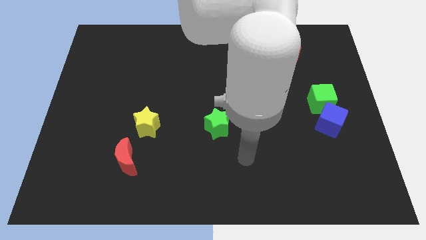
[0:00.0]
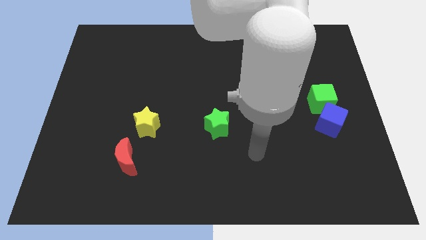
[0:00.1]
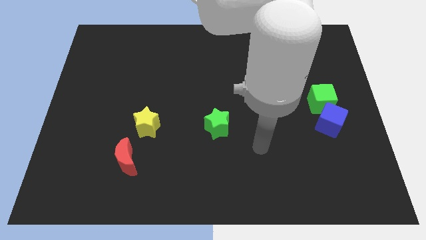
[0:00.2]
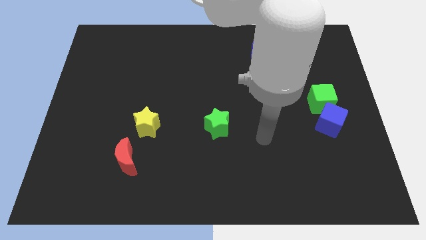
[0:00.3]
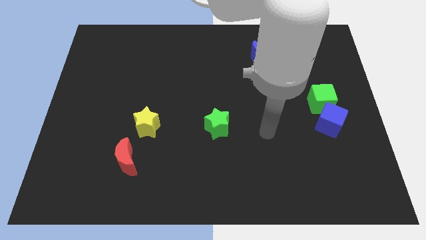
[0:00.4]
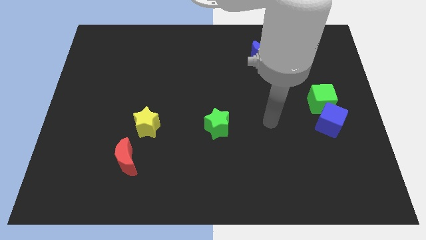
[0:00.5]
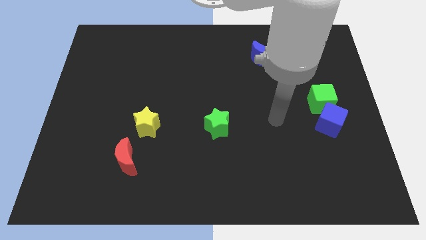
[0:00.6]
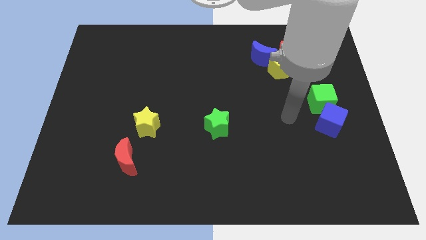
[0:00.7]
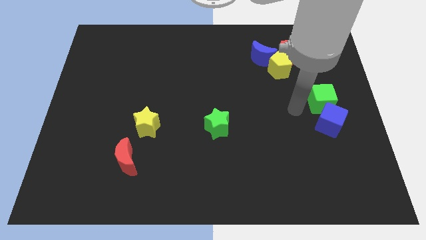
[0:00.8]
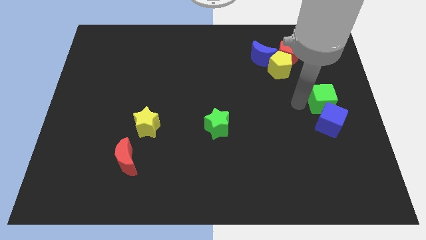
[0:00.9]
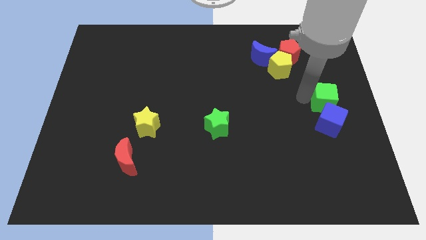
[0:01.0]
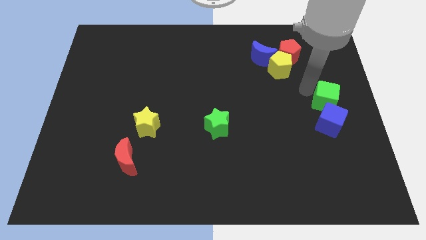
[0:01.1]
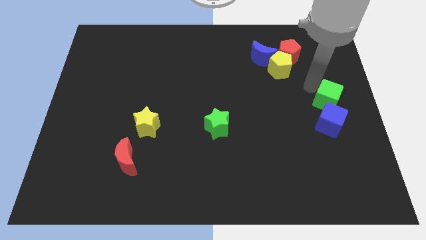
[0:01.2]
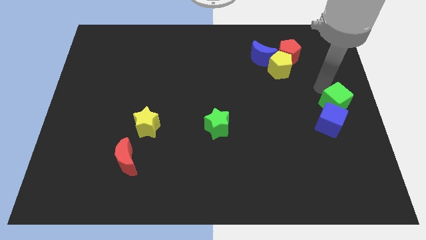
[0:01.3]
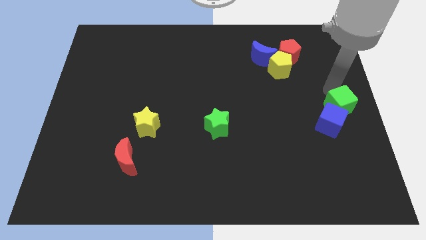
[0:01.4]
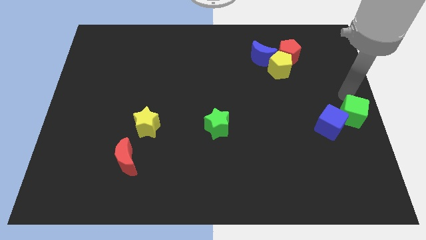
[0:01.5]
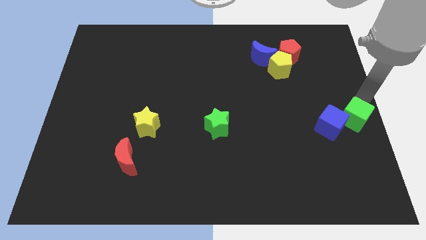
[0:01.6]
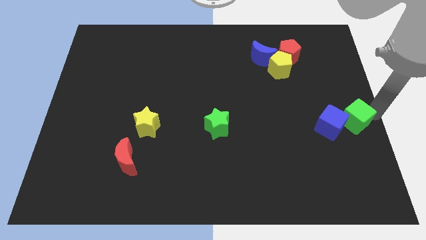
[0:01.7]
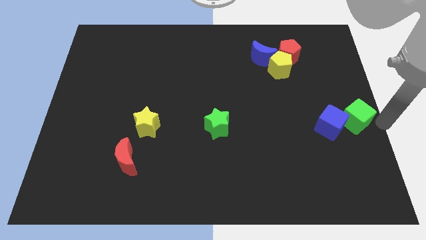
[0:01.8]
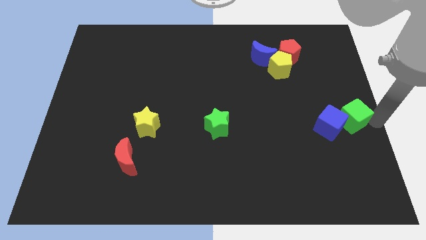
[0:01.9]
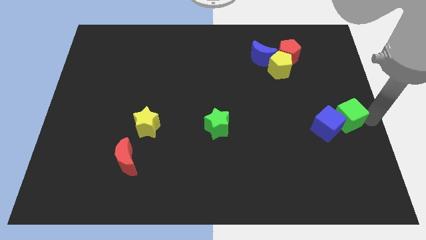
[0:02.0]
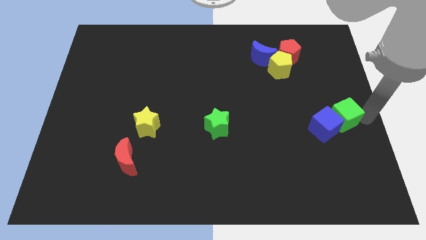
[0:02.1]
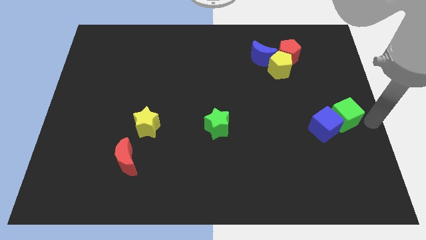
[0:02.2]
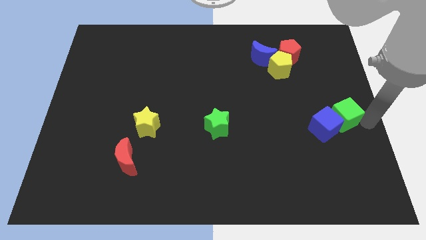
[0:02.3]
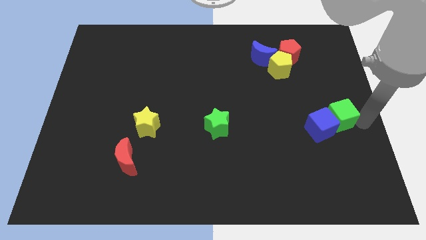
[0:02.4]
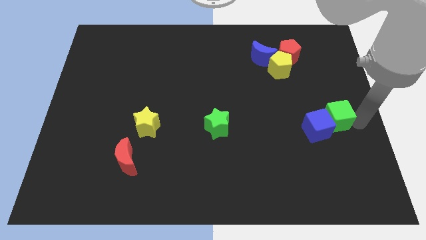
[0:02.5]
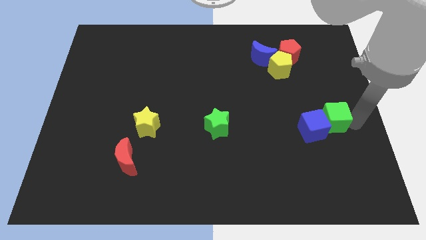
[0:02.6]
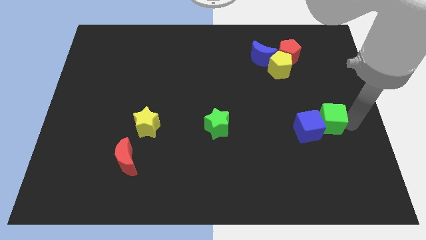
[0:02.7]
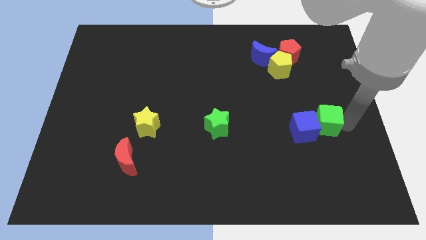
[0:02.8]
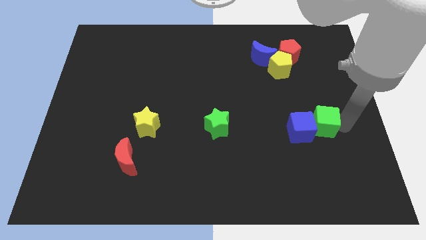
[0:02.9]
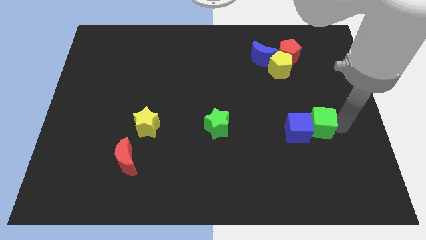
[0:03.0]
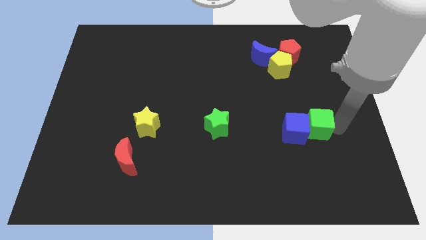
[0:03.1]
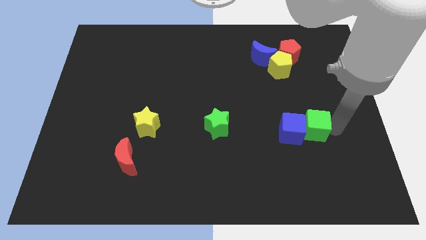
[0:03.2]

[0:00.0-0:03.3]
slightly move the green cube down and left

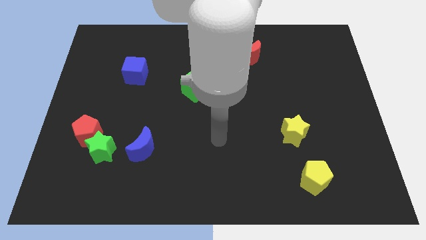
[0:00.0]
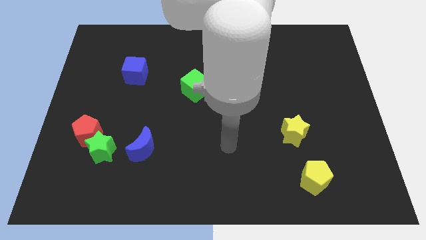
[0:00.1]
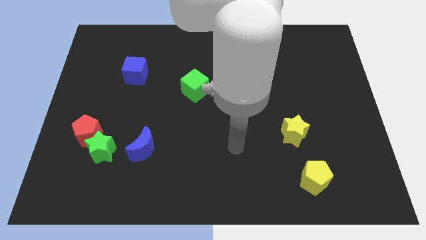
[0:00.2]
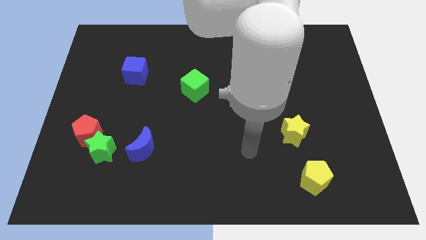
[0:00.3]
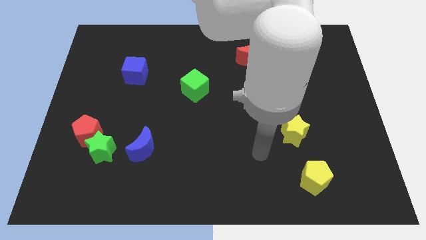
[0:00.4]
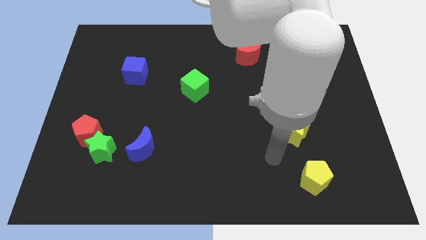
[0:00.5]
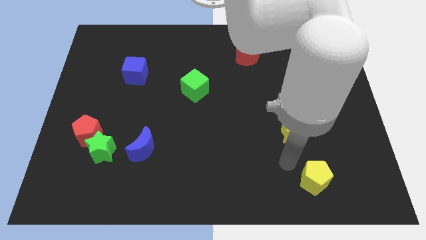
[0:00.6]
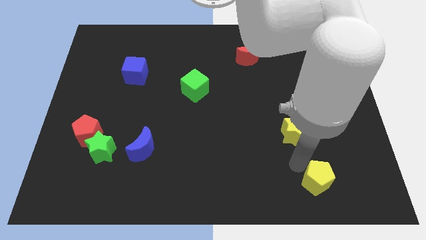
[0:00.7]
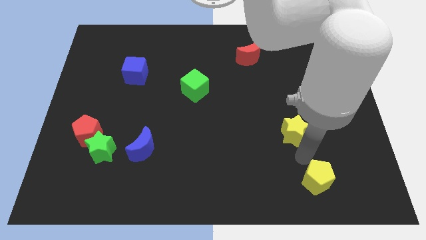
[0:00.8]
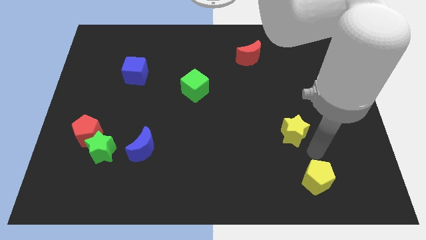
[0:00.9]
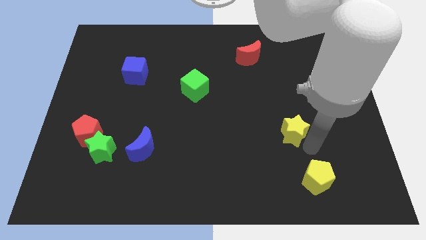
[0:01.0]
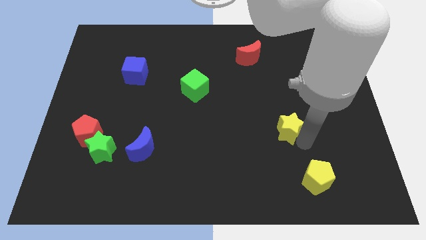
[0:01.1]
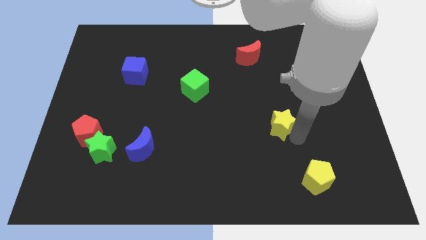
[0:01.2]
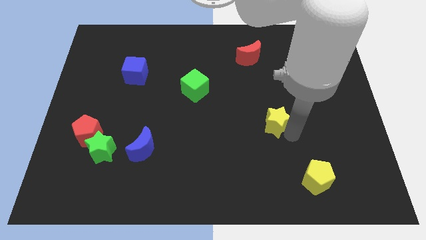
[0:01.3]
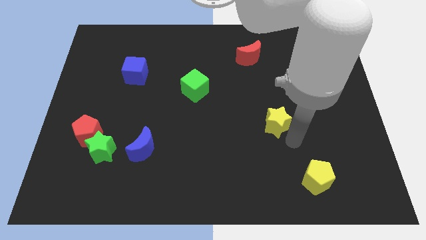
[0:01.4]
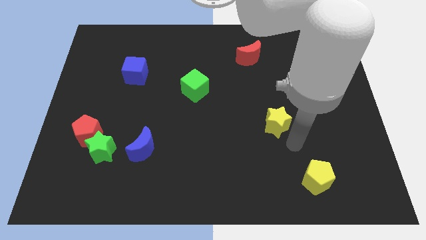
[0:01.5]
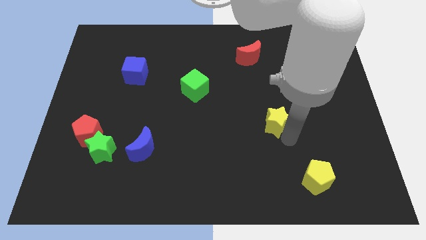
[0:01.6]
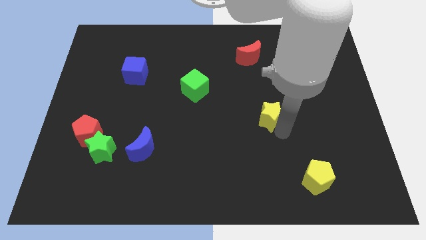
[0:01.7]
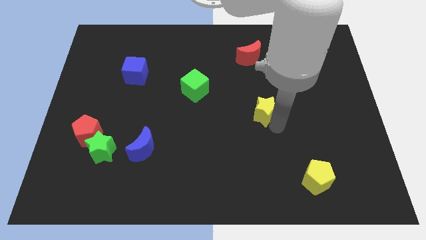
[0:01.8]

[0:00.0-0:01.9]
push the yellow star a bit upwards and left

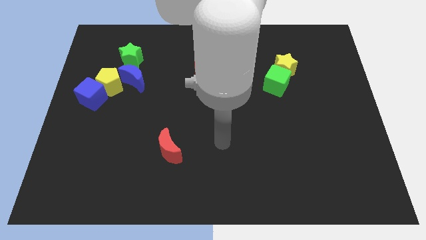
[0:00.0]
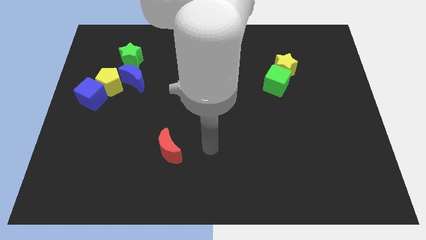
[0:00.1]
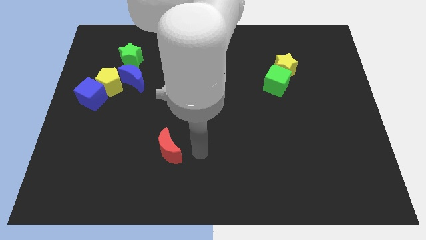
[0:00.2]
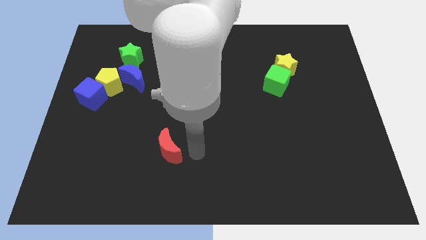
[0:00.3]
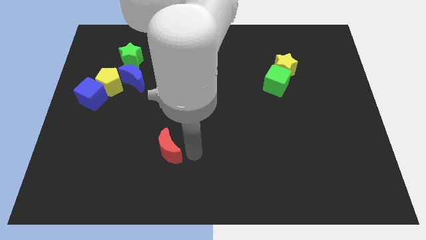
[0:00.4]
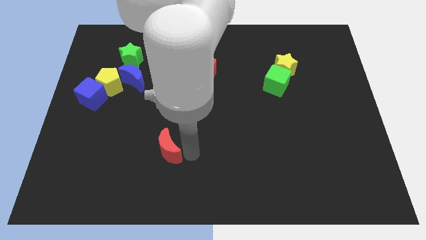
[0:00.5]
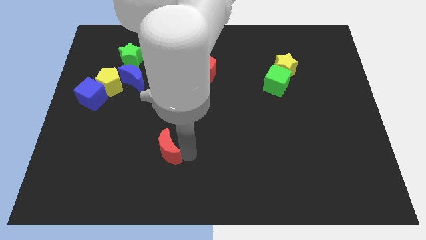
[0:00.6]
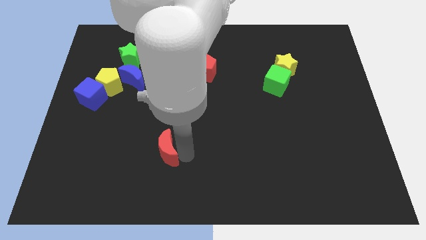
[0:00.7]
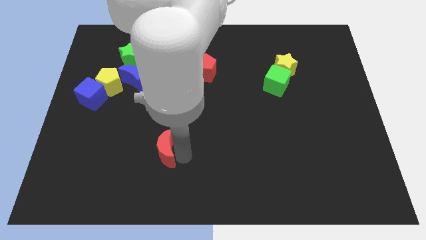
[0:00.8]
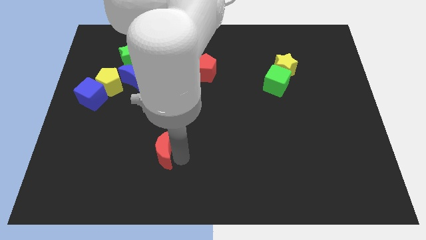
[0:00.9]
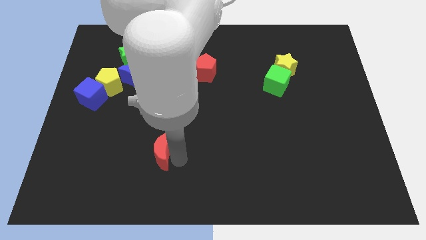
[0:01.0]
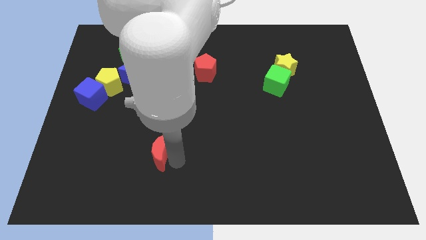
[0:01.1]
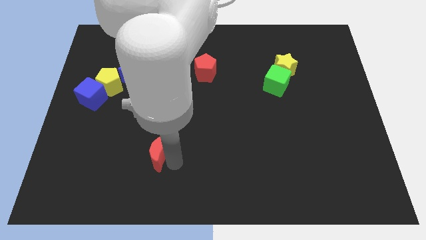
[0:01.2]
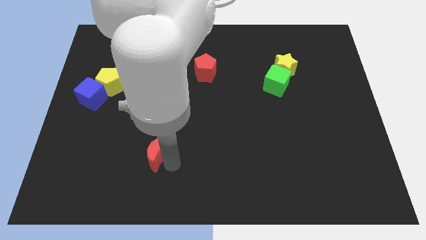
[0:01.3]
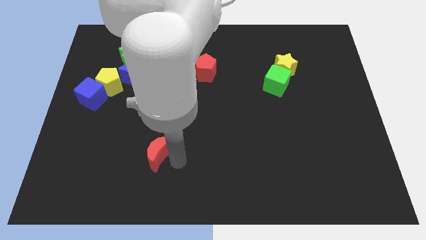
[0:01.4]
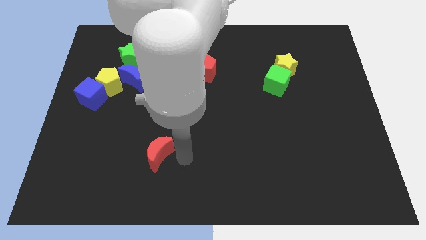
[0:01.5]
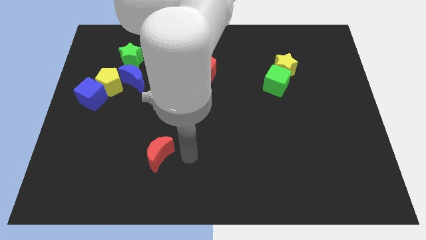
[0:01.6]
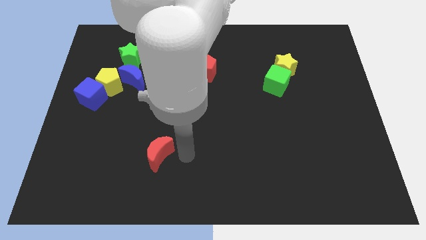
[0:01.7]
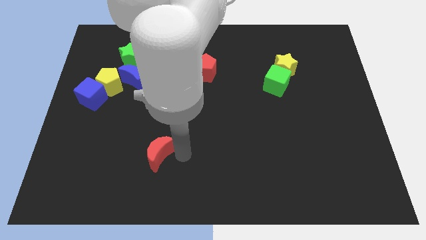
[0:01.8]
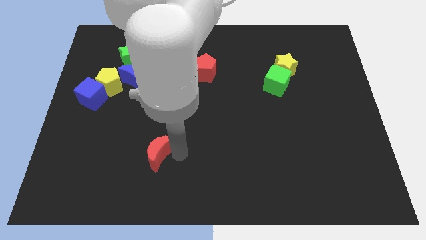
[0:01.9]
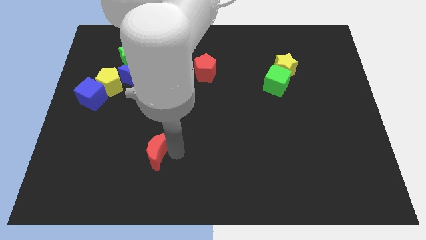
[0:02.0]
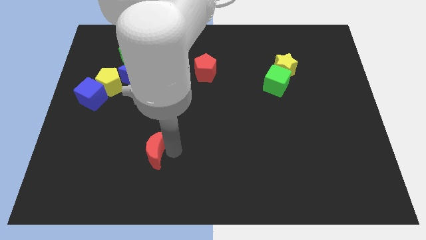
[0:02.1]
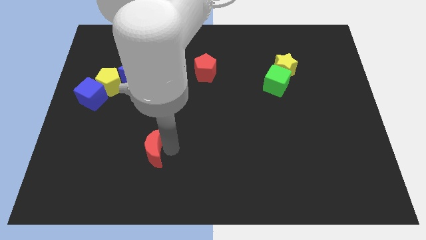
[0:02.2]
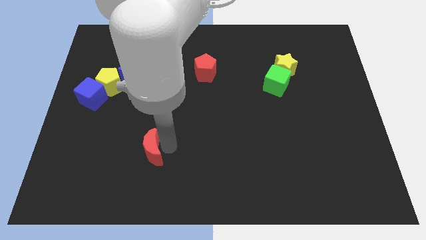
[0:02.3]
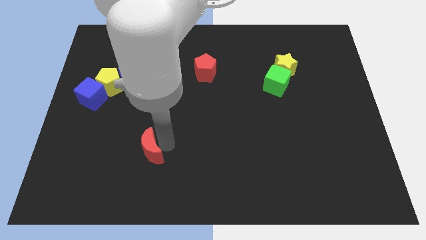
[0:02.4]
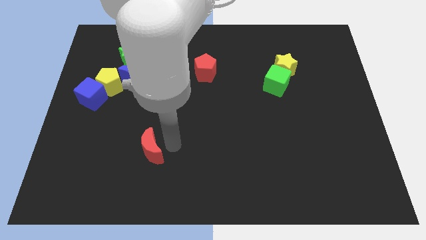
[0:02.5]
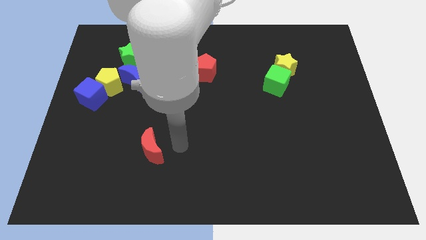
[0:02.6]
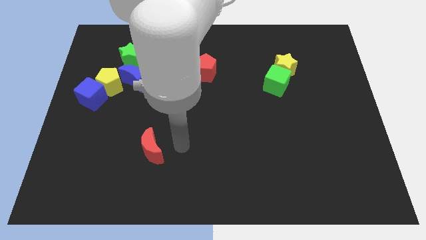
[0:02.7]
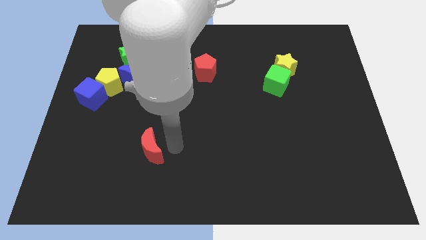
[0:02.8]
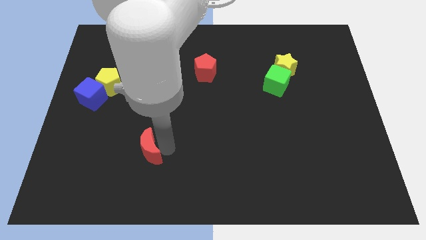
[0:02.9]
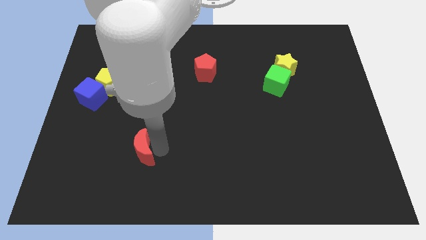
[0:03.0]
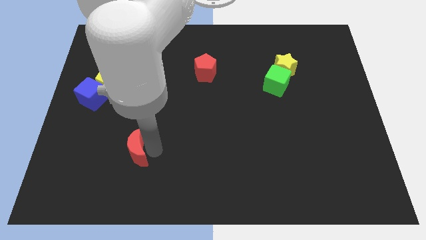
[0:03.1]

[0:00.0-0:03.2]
move the red moon to the left slightly

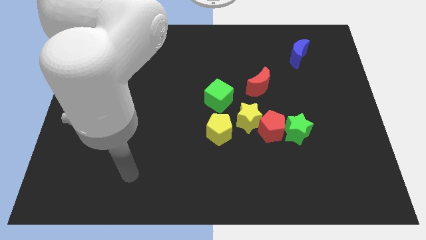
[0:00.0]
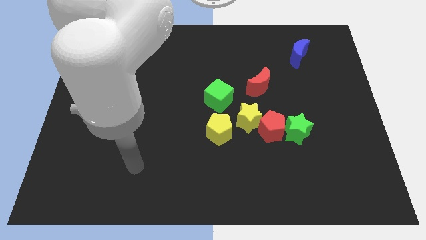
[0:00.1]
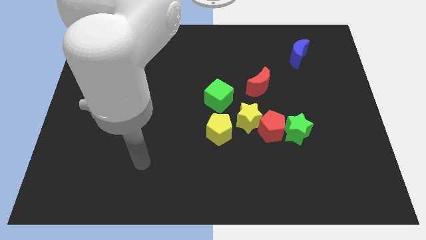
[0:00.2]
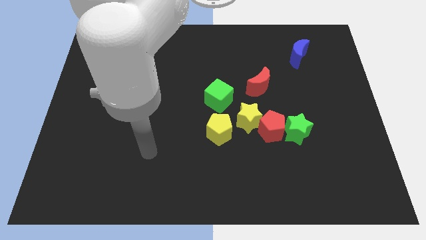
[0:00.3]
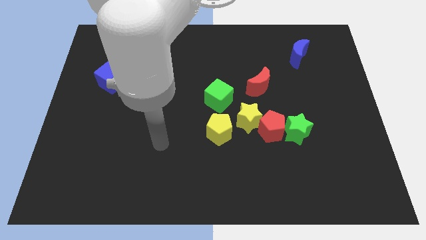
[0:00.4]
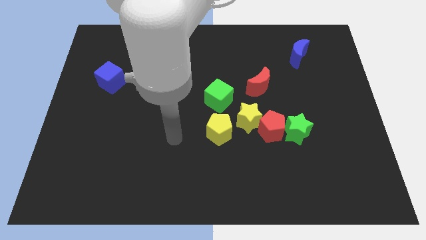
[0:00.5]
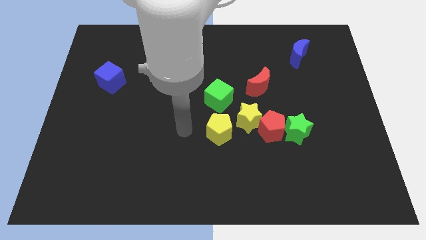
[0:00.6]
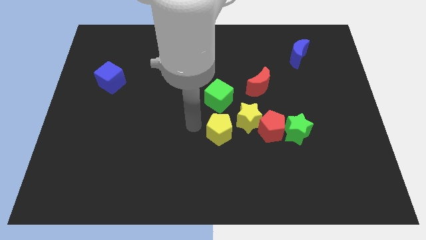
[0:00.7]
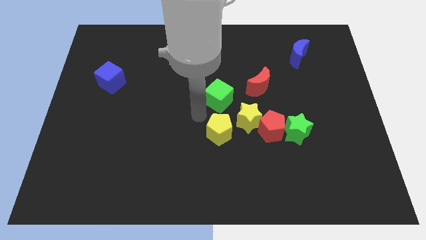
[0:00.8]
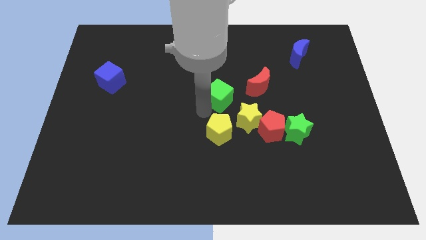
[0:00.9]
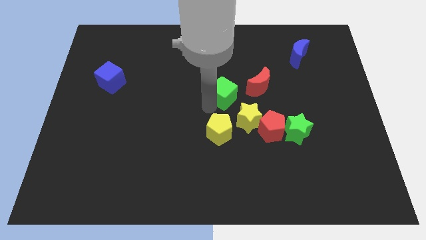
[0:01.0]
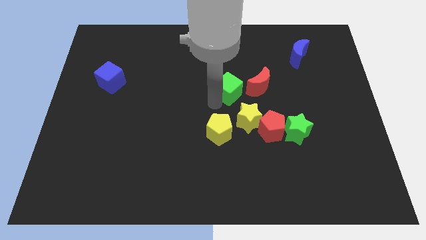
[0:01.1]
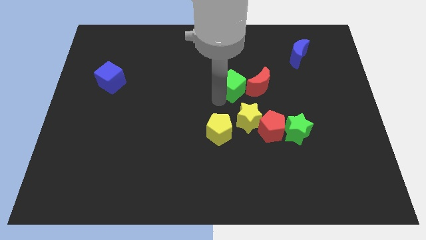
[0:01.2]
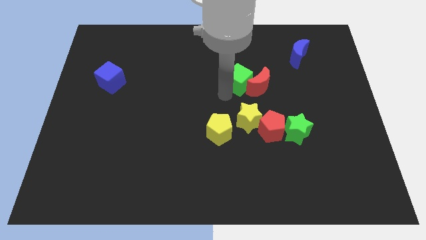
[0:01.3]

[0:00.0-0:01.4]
move the green cube somewhat diagonally upwards and right
